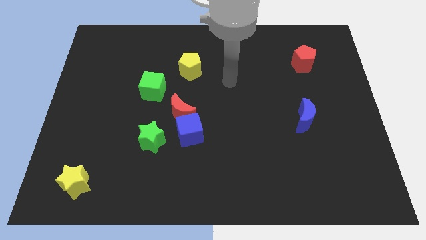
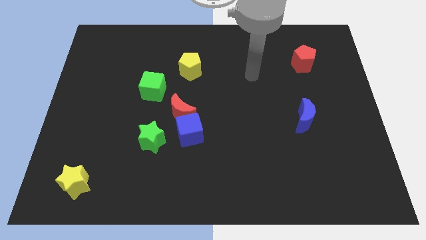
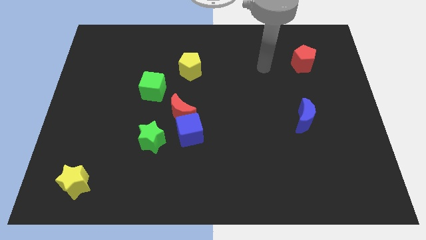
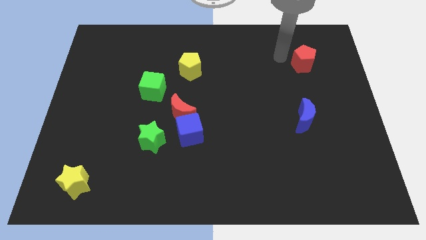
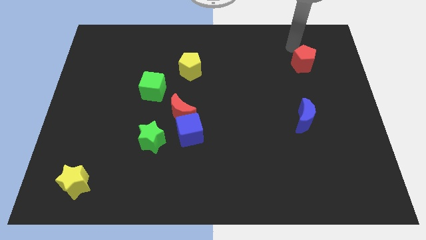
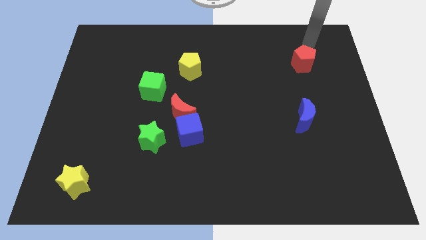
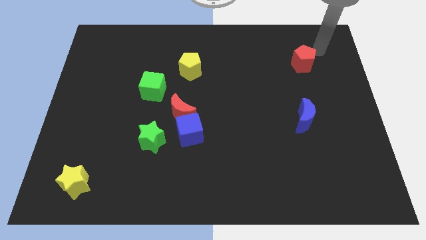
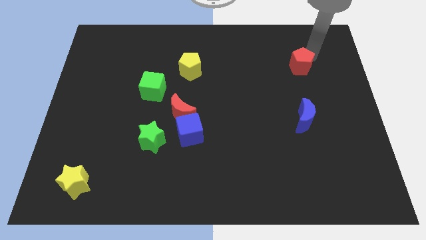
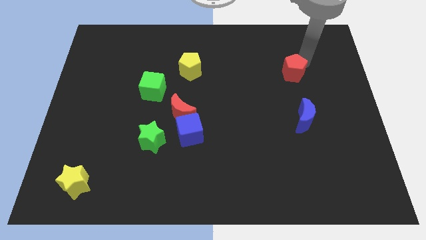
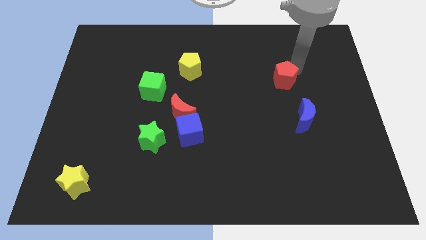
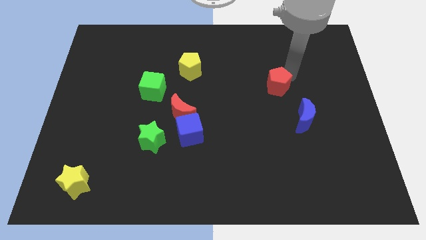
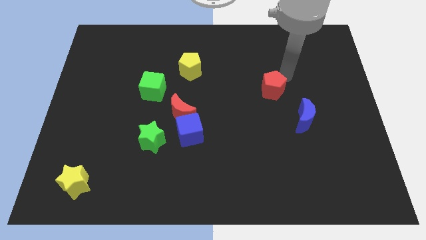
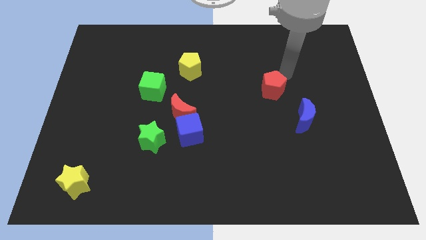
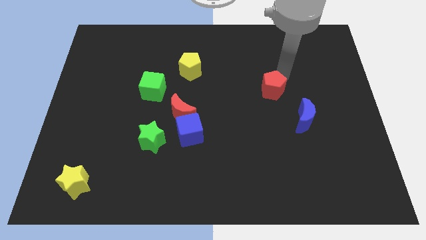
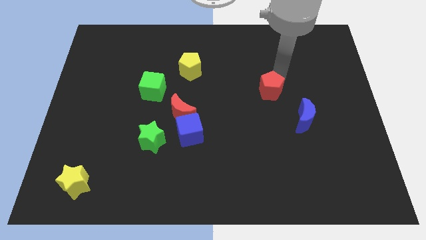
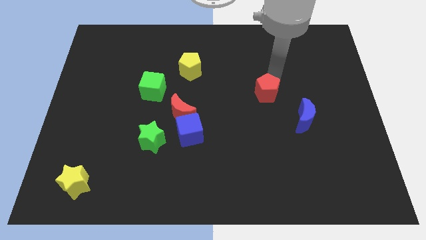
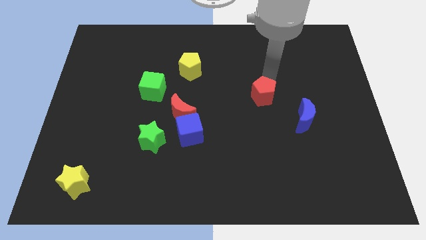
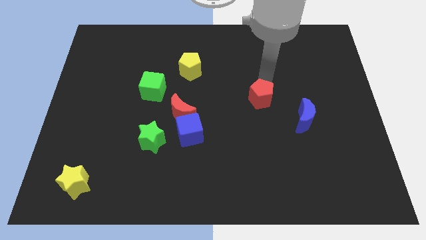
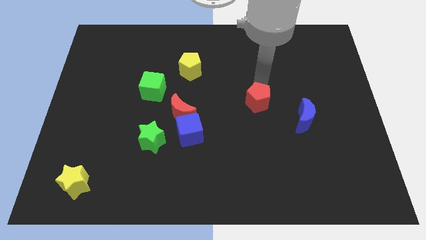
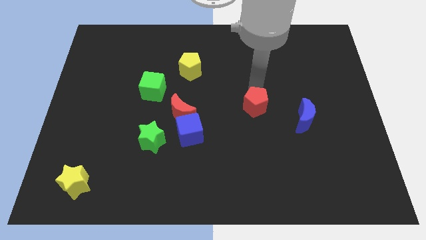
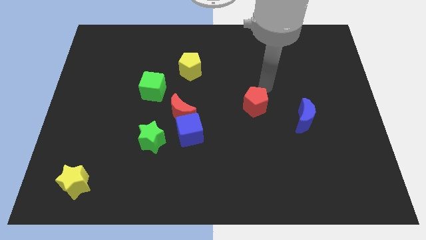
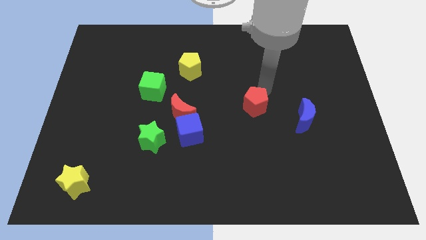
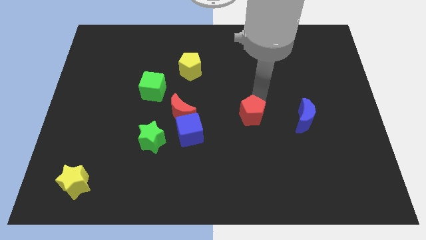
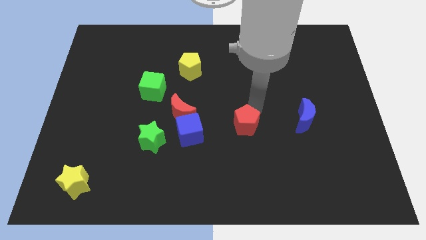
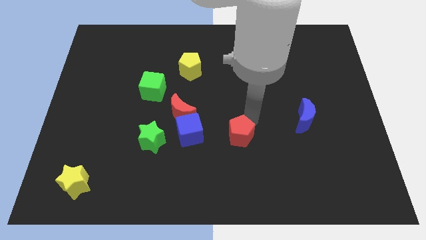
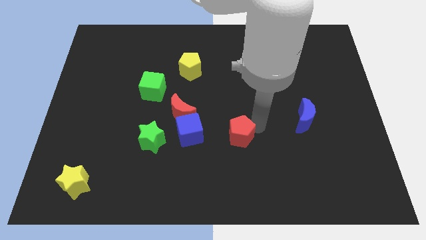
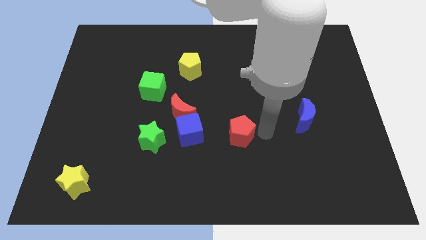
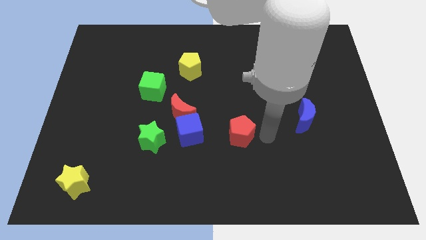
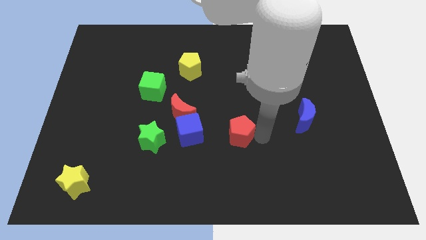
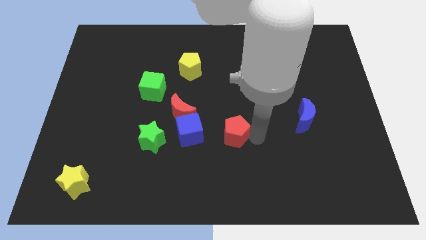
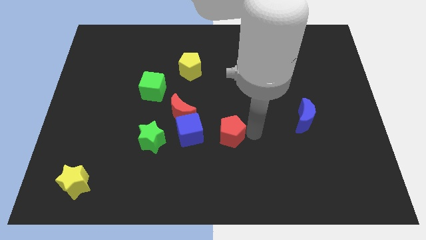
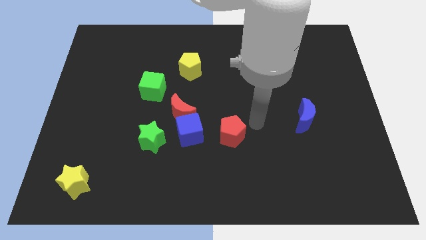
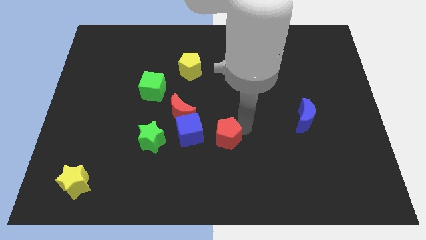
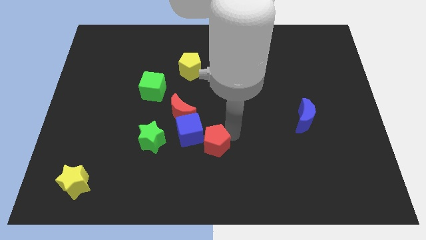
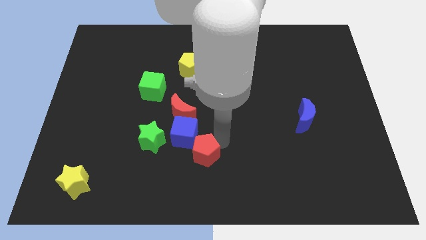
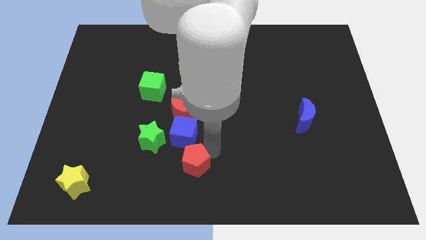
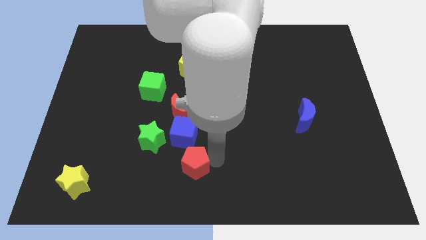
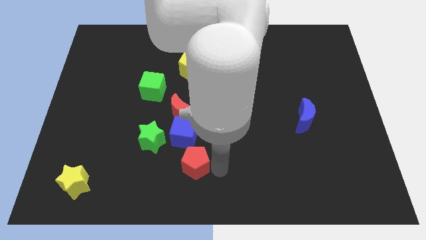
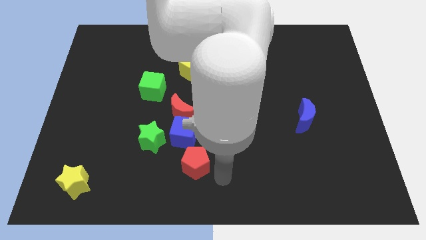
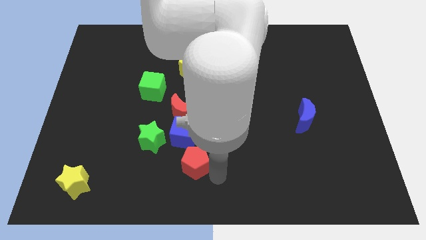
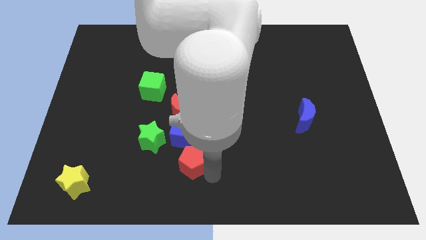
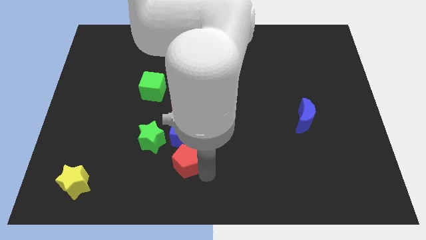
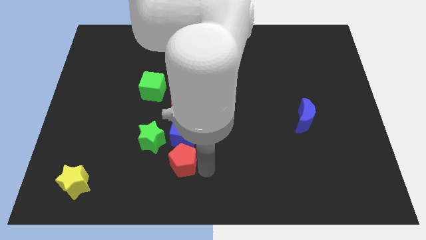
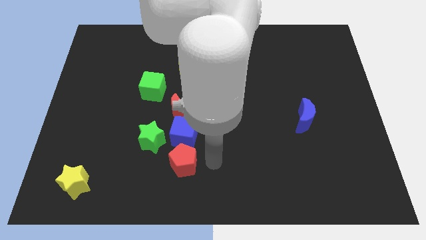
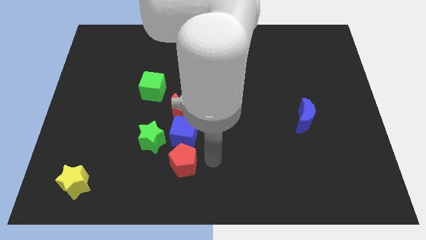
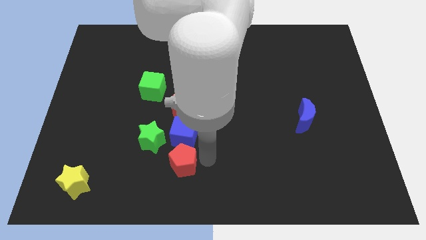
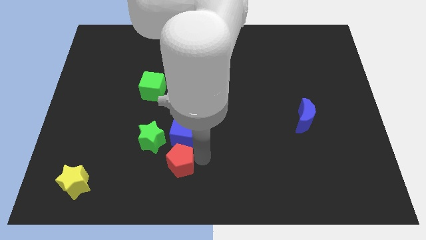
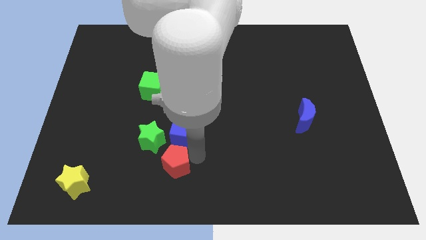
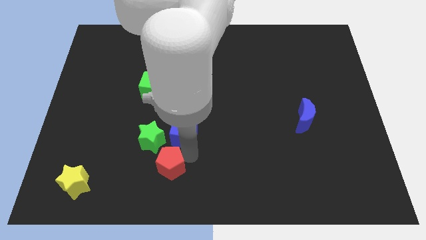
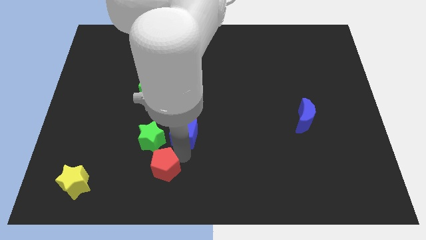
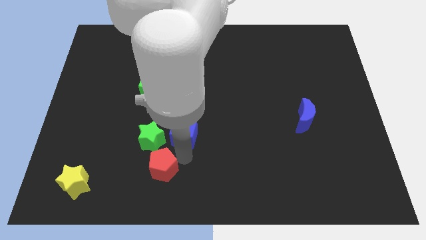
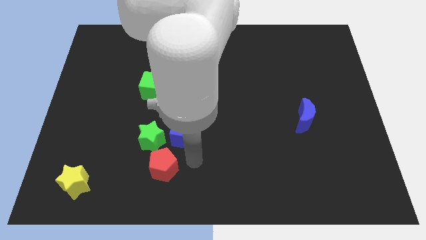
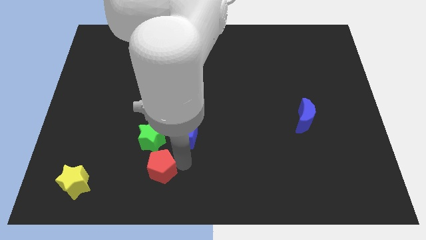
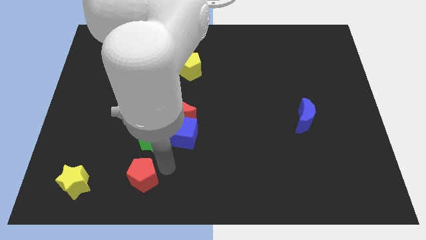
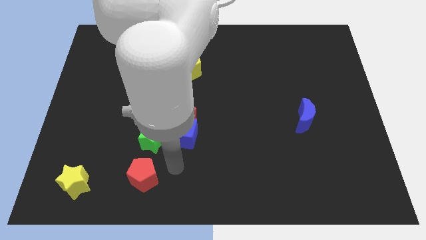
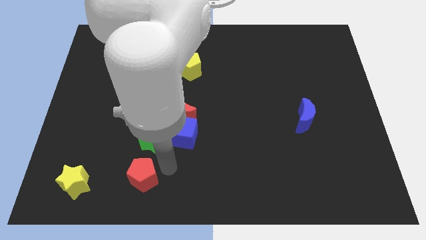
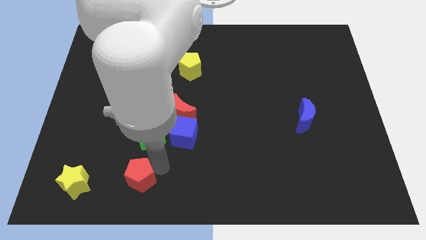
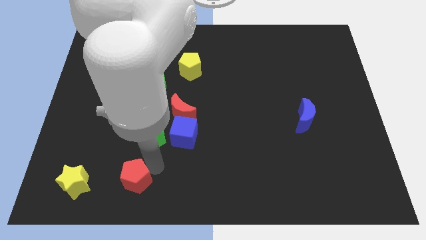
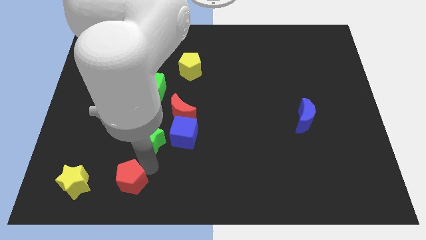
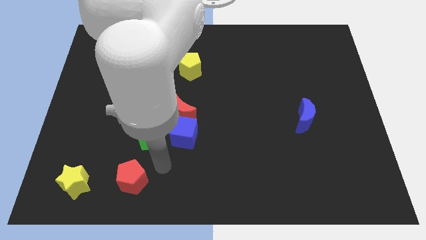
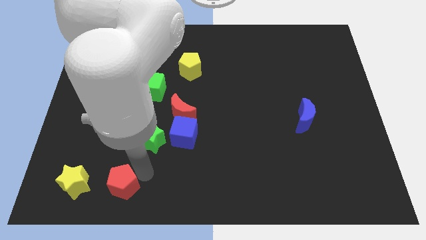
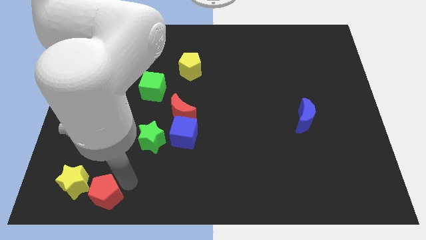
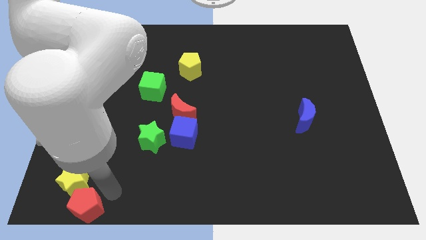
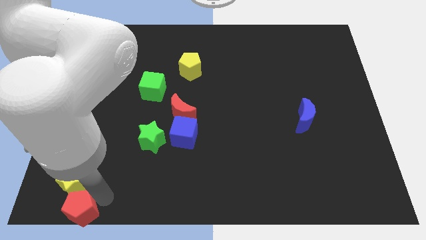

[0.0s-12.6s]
put the red pentagon to the bottom left corner
